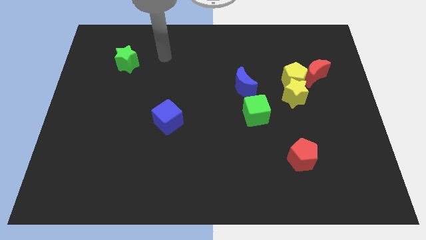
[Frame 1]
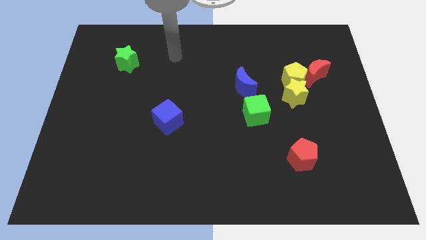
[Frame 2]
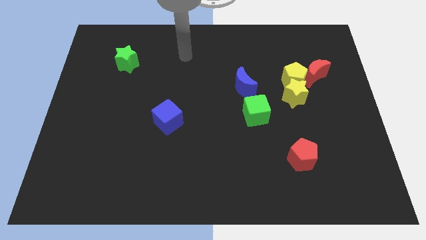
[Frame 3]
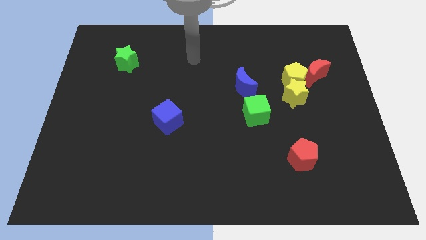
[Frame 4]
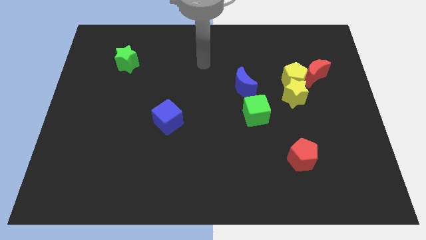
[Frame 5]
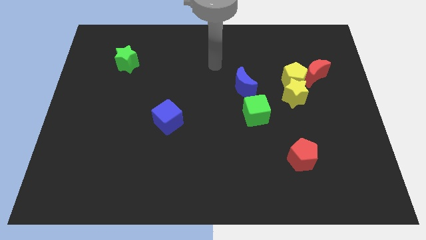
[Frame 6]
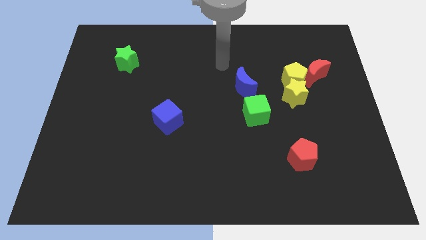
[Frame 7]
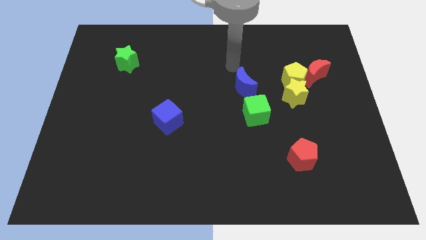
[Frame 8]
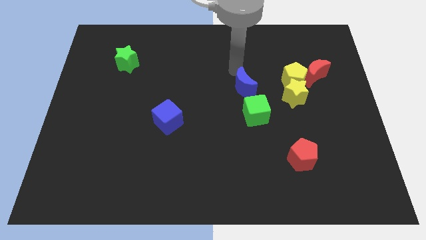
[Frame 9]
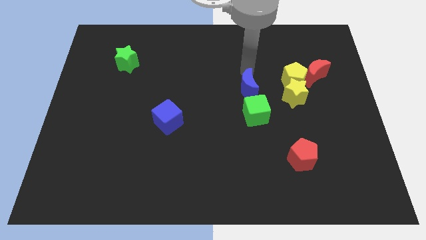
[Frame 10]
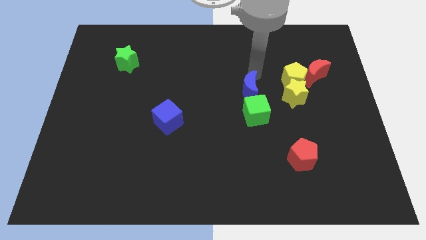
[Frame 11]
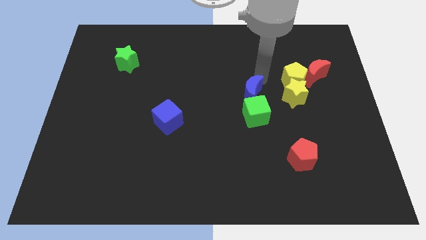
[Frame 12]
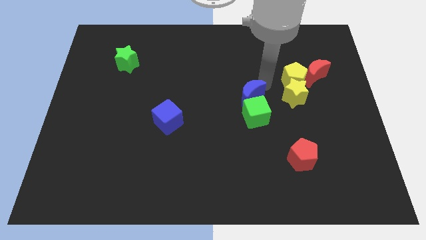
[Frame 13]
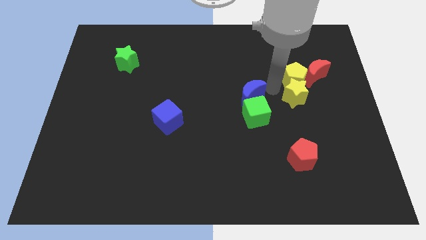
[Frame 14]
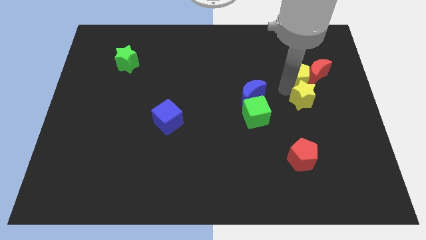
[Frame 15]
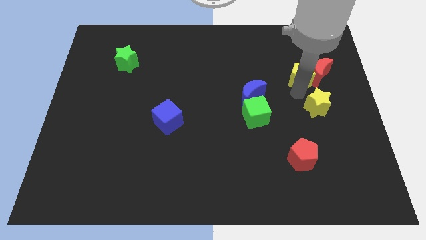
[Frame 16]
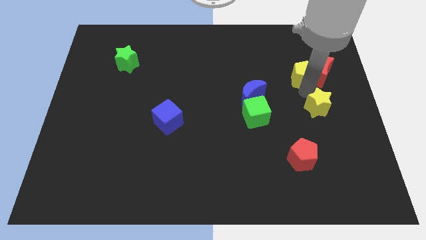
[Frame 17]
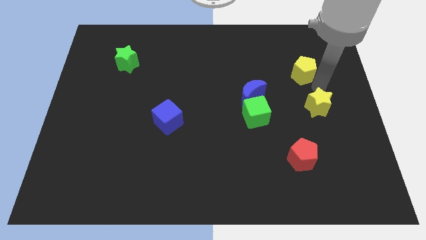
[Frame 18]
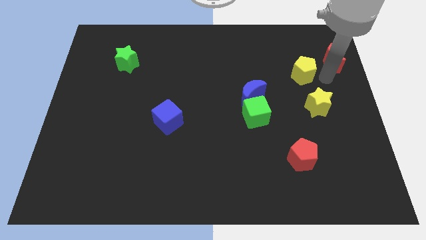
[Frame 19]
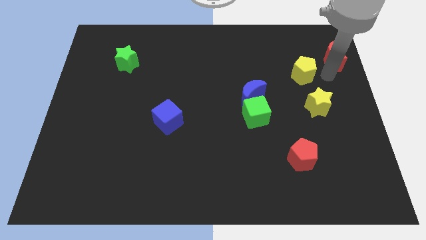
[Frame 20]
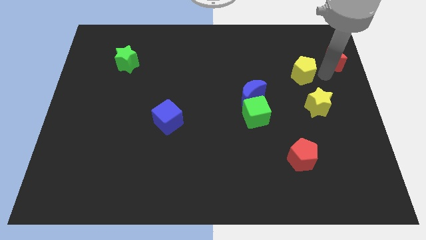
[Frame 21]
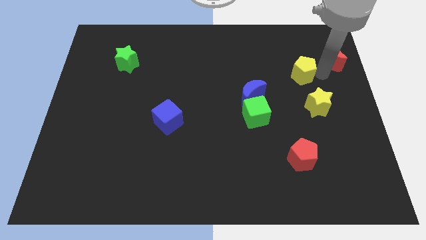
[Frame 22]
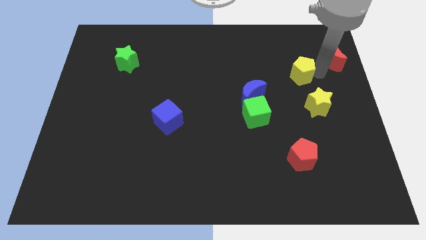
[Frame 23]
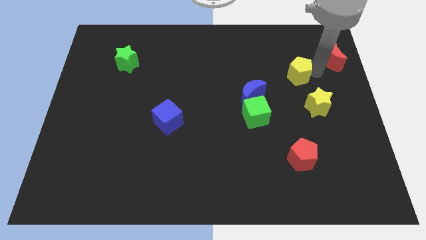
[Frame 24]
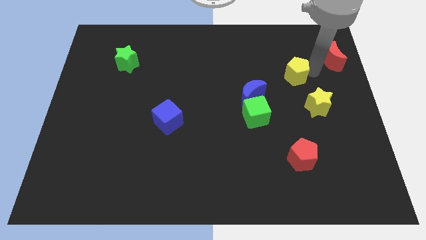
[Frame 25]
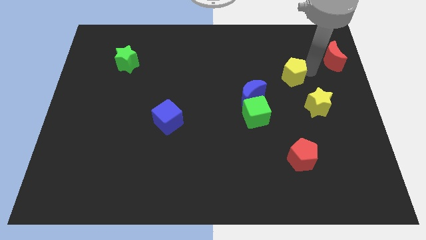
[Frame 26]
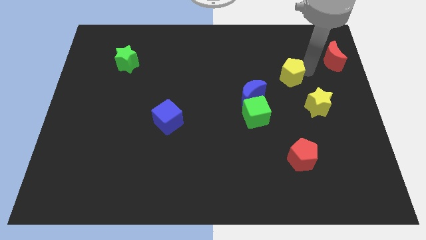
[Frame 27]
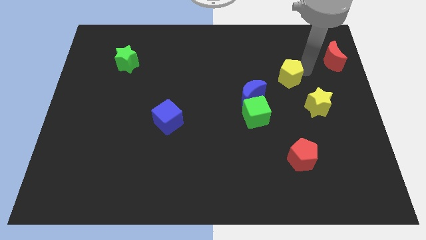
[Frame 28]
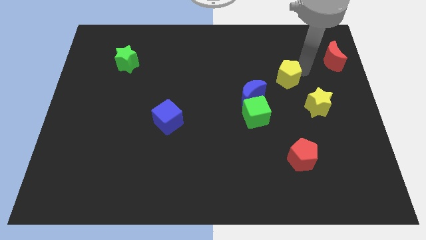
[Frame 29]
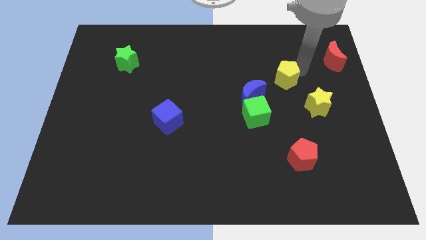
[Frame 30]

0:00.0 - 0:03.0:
separate the yellow pentagon from the yellow star and red moon

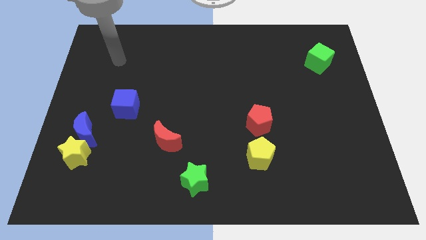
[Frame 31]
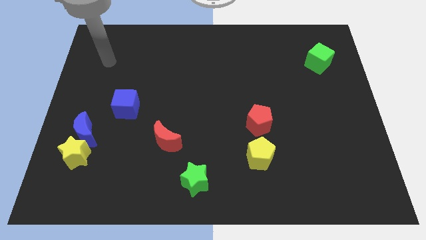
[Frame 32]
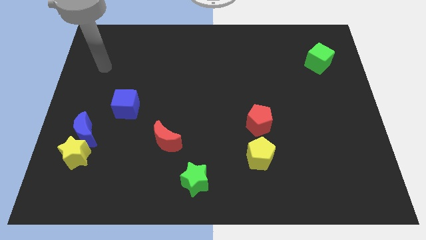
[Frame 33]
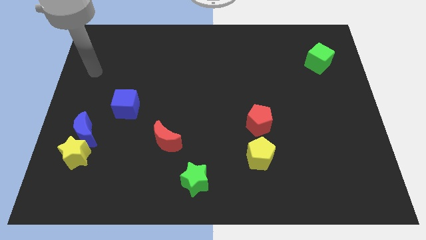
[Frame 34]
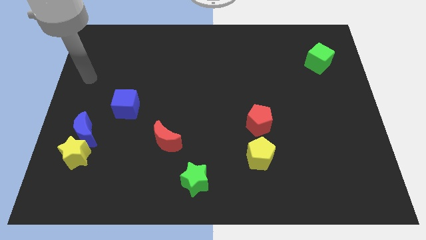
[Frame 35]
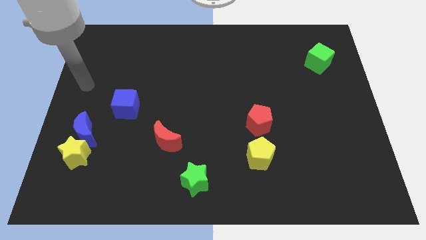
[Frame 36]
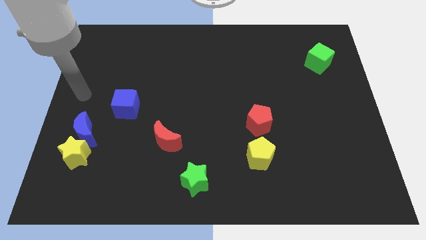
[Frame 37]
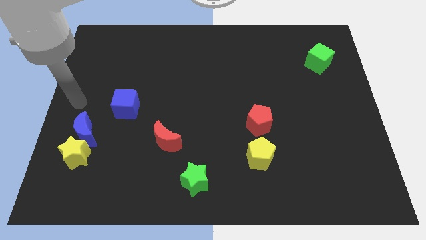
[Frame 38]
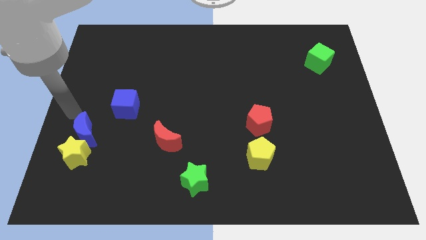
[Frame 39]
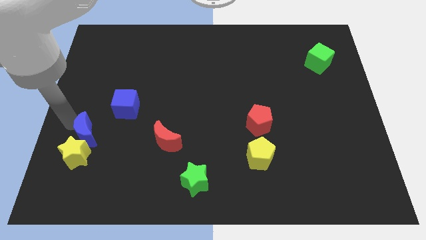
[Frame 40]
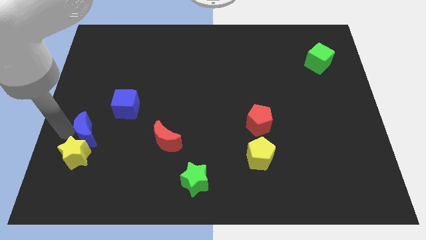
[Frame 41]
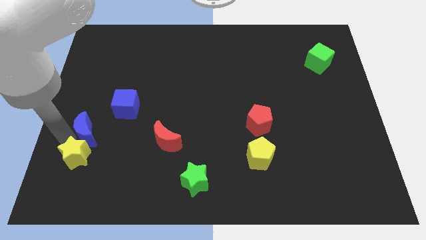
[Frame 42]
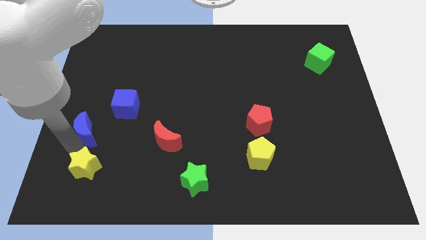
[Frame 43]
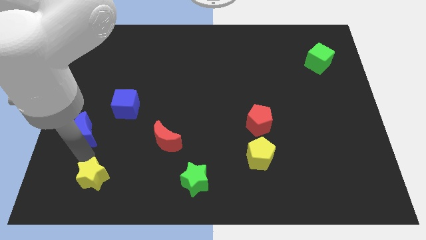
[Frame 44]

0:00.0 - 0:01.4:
pull the blue moon apart from the yellow star

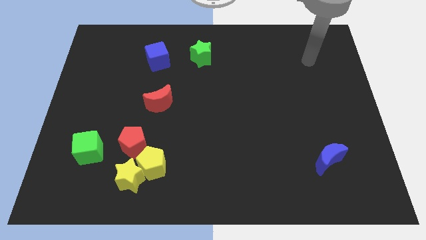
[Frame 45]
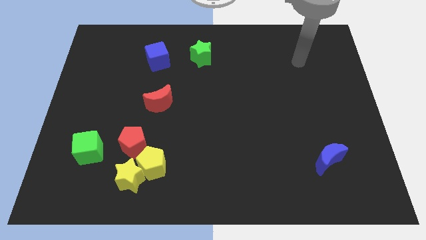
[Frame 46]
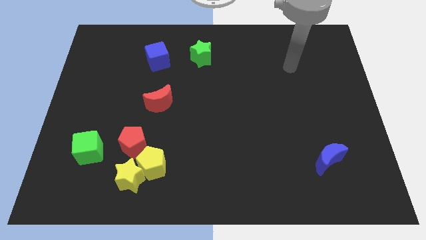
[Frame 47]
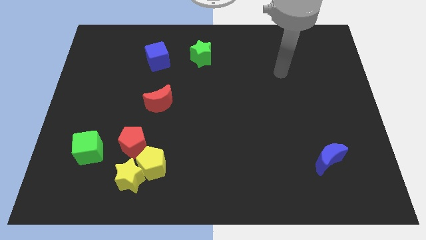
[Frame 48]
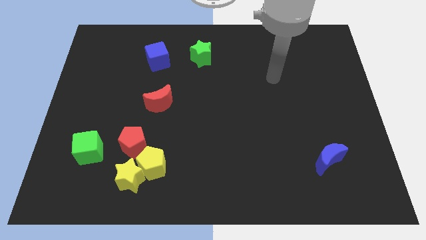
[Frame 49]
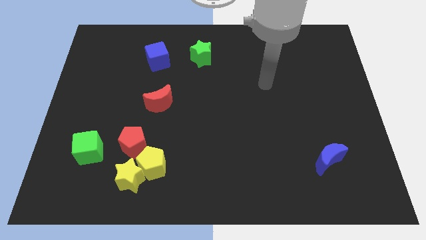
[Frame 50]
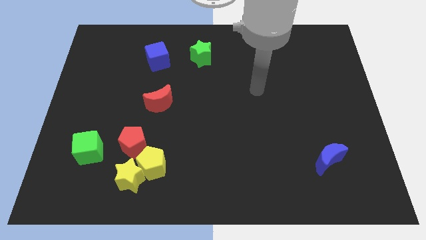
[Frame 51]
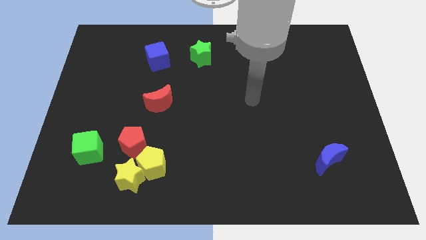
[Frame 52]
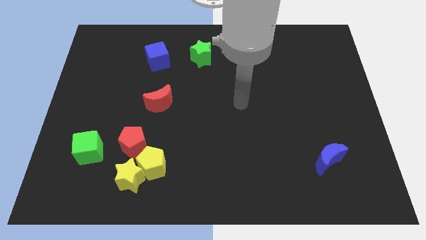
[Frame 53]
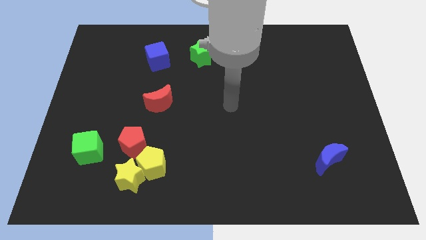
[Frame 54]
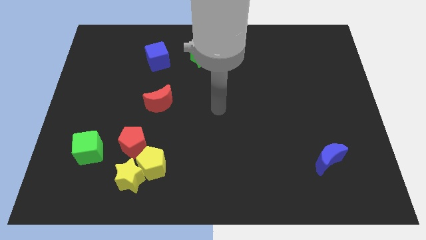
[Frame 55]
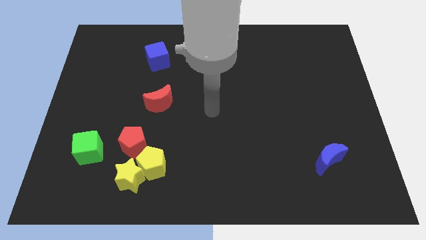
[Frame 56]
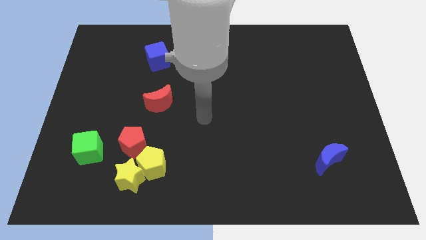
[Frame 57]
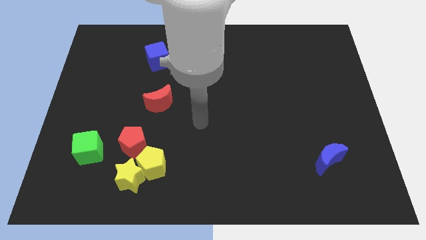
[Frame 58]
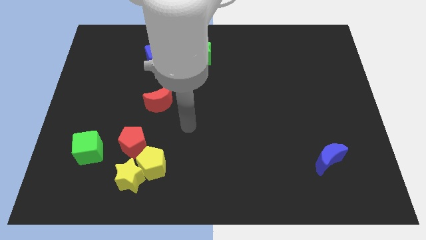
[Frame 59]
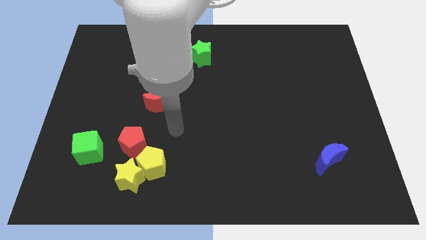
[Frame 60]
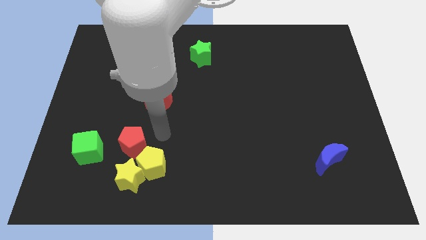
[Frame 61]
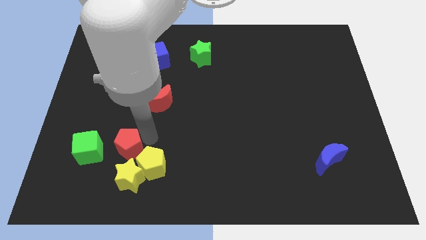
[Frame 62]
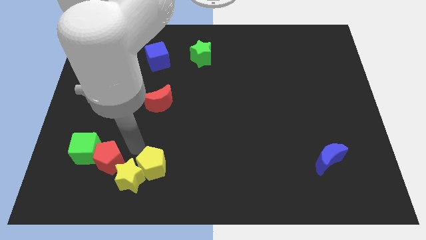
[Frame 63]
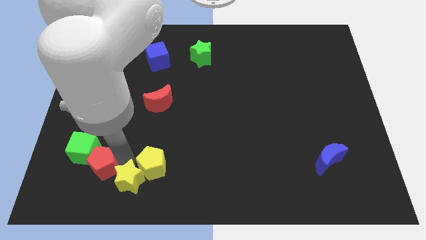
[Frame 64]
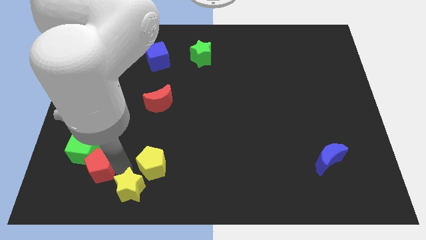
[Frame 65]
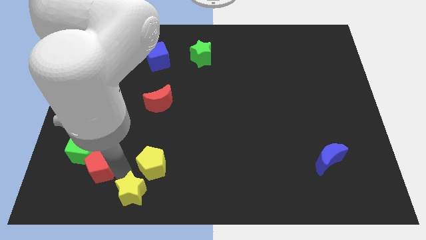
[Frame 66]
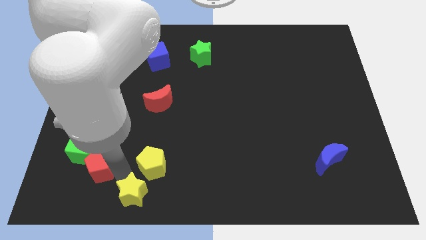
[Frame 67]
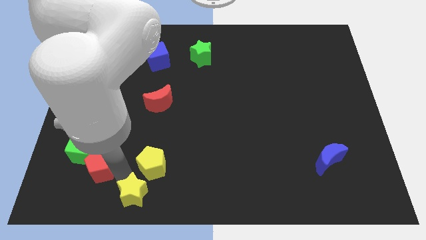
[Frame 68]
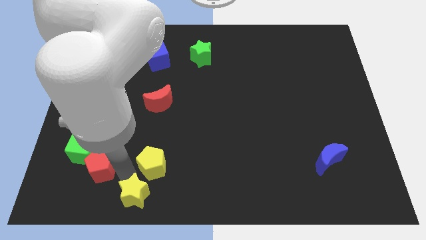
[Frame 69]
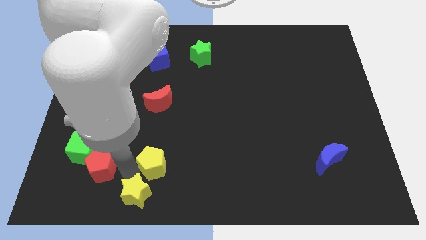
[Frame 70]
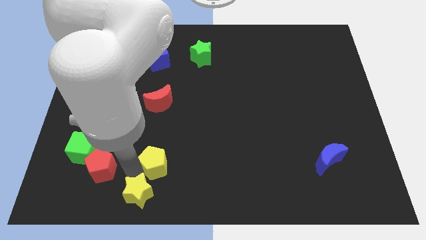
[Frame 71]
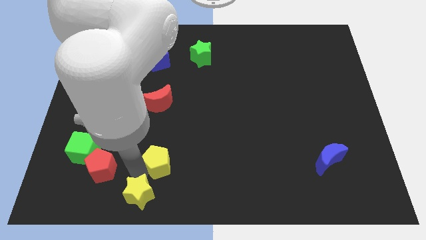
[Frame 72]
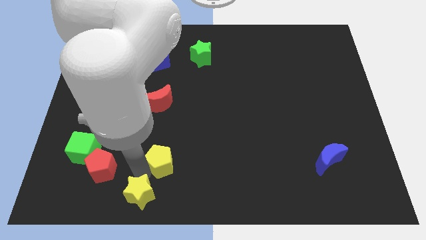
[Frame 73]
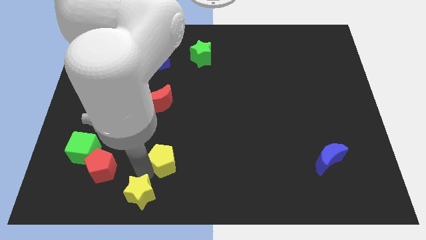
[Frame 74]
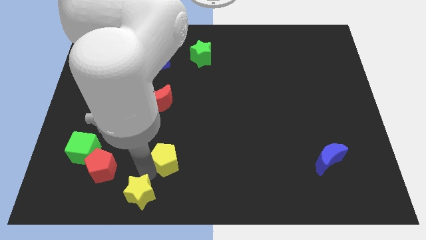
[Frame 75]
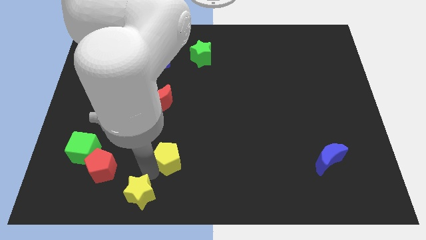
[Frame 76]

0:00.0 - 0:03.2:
move the yellow pentagon away from the yellow star and red pentagon

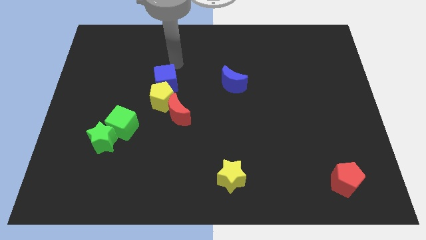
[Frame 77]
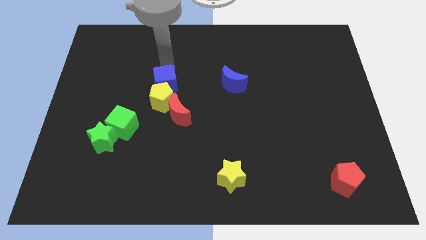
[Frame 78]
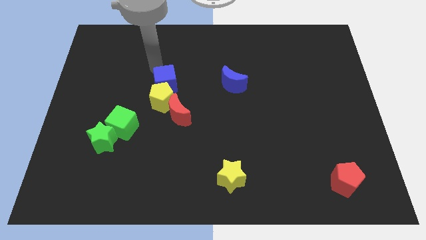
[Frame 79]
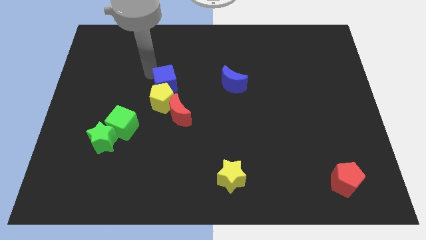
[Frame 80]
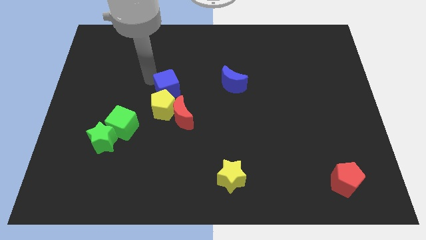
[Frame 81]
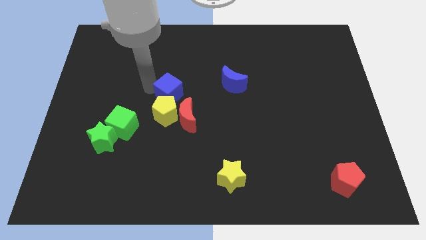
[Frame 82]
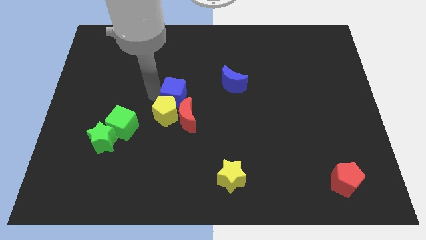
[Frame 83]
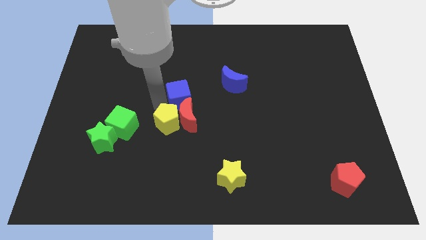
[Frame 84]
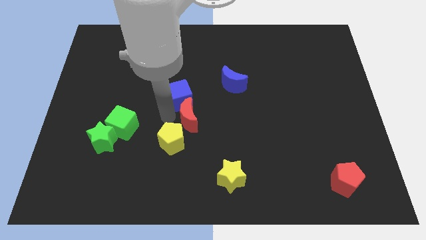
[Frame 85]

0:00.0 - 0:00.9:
separate the blue cube from the yellow pentagon

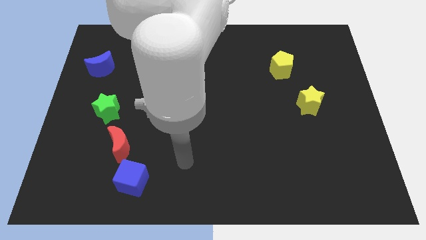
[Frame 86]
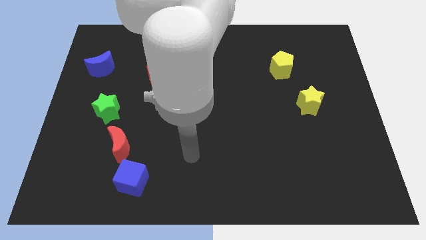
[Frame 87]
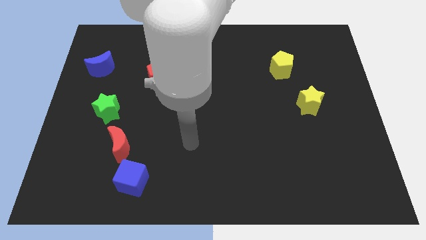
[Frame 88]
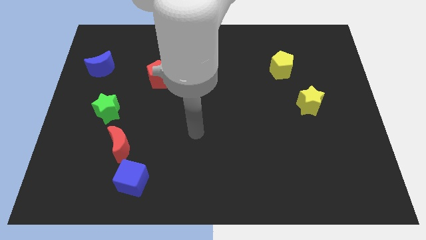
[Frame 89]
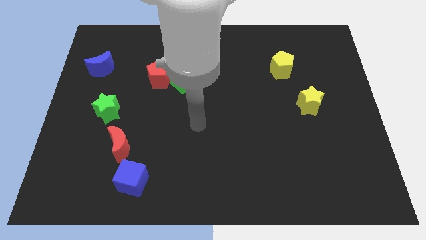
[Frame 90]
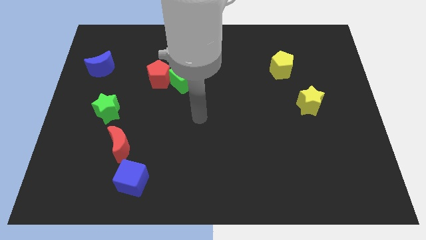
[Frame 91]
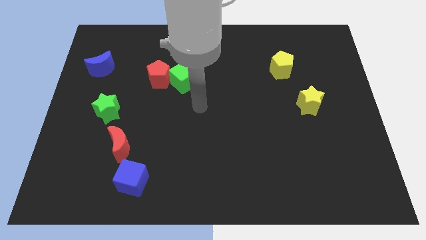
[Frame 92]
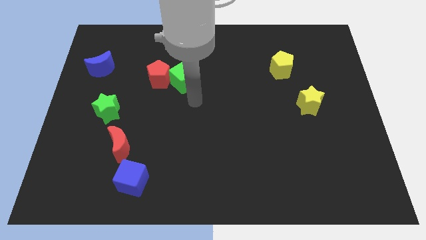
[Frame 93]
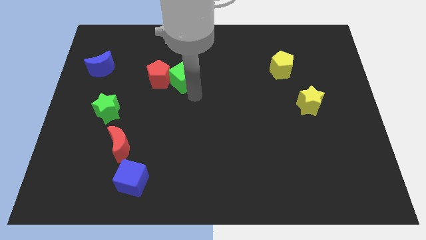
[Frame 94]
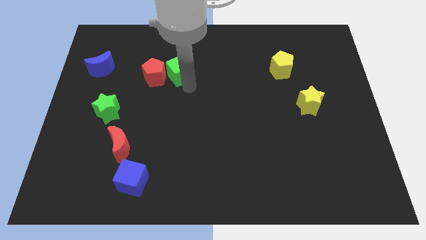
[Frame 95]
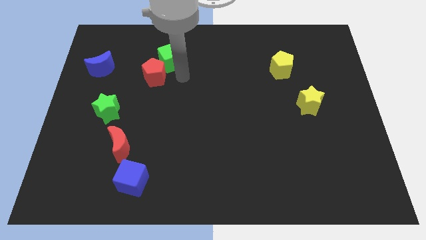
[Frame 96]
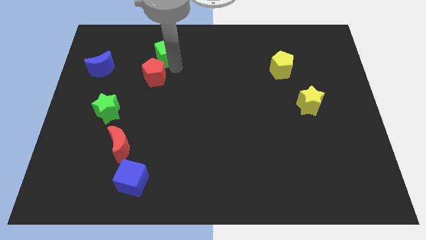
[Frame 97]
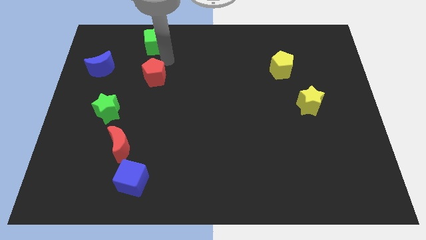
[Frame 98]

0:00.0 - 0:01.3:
pull the red pentagon apart from the green cube
